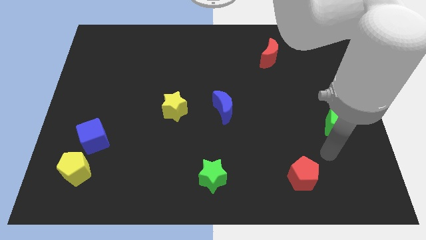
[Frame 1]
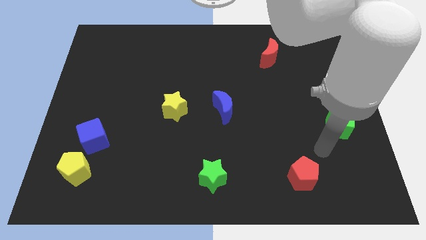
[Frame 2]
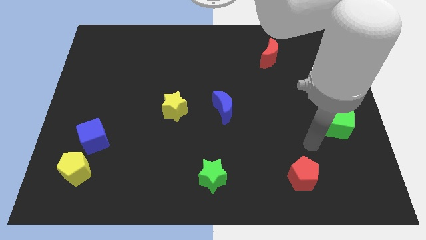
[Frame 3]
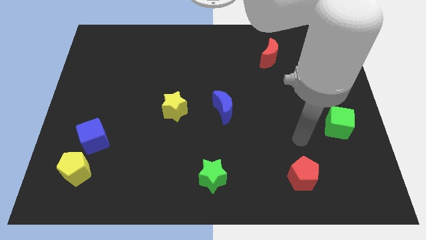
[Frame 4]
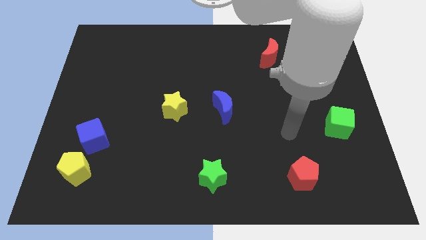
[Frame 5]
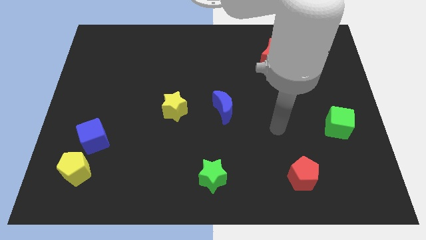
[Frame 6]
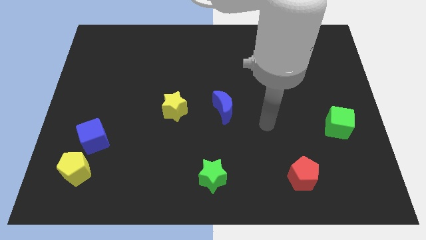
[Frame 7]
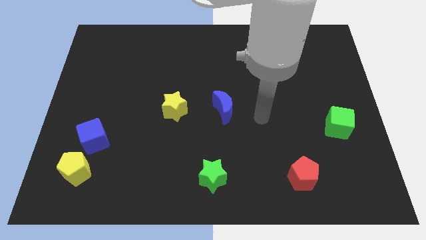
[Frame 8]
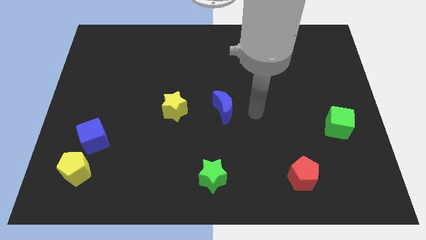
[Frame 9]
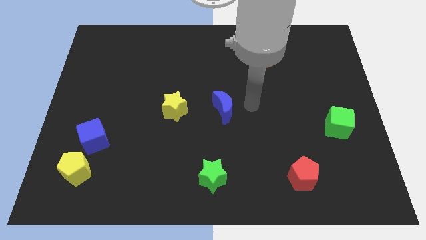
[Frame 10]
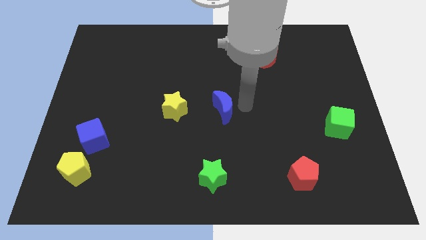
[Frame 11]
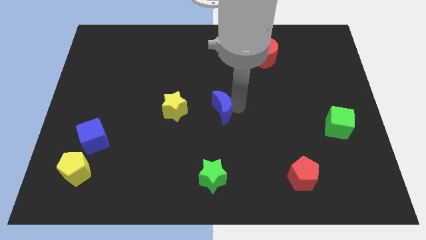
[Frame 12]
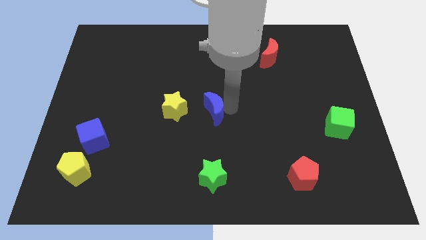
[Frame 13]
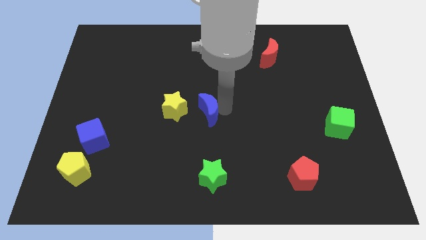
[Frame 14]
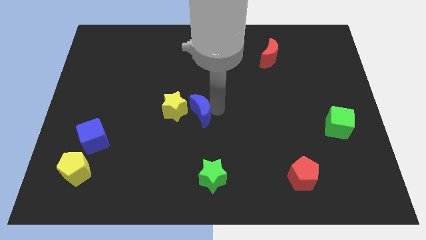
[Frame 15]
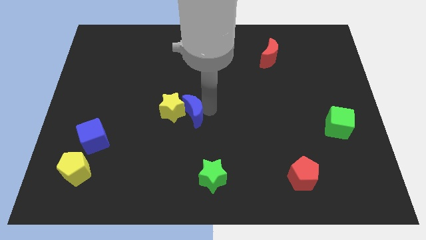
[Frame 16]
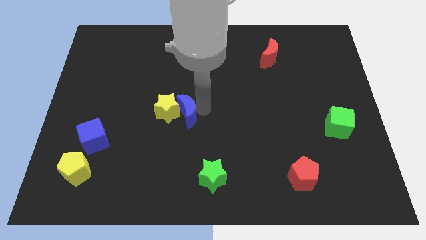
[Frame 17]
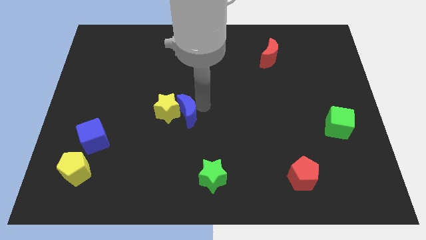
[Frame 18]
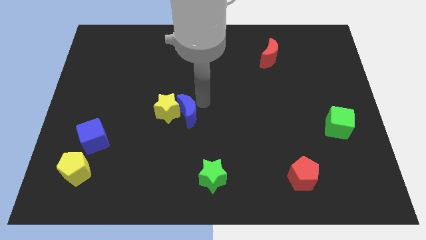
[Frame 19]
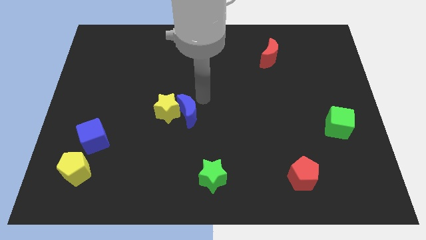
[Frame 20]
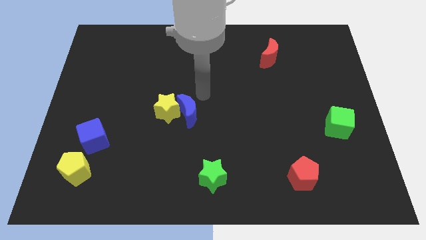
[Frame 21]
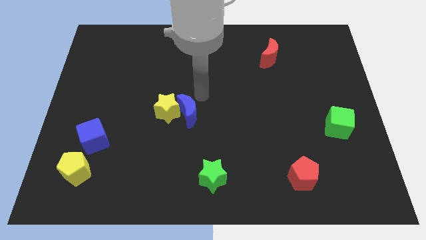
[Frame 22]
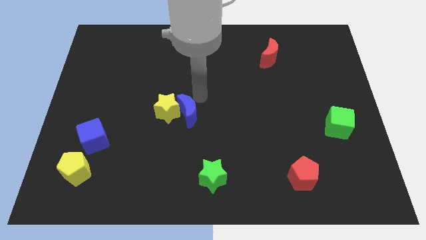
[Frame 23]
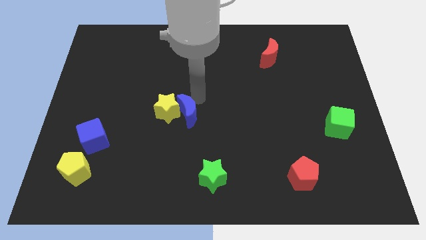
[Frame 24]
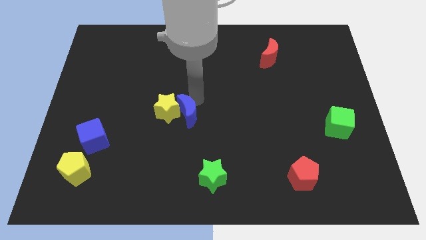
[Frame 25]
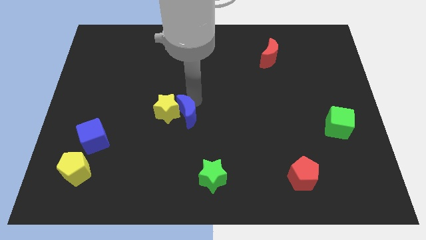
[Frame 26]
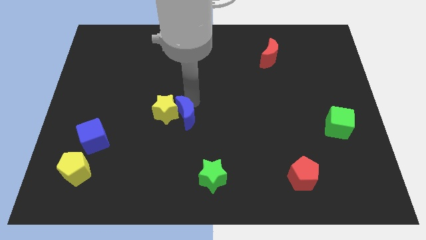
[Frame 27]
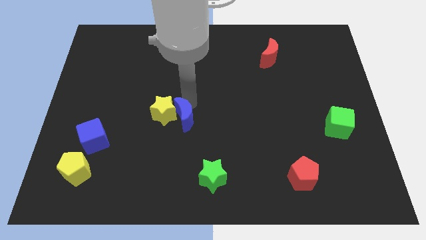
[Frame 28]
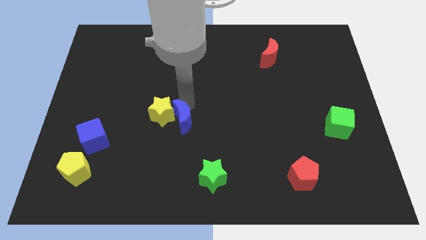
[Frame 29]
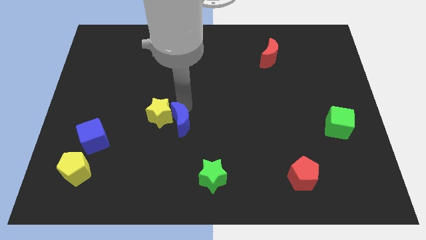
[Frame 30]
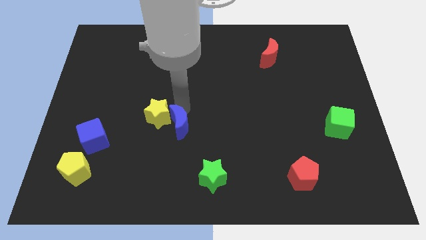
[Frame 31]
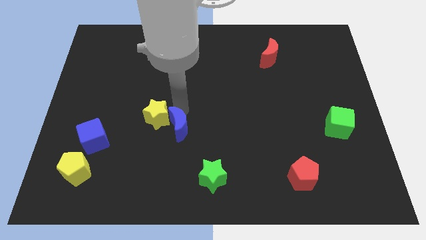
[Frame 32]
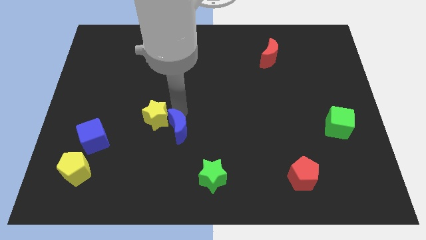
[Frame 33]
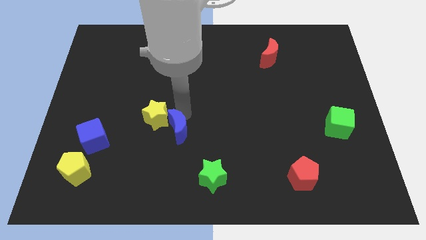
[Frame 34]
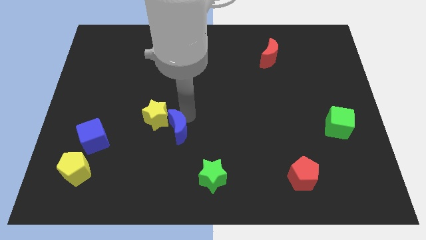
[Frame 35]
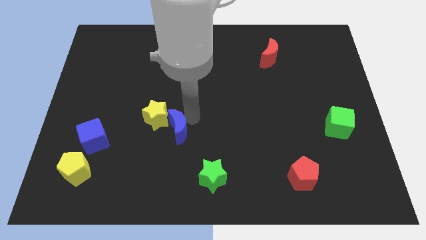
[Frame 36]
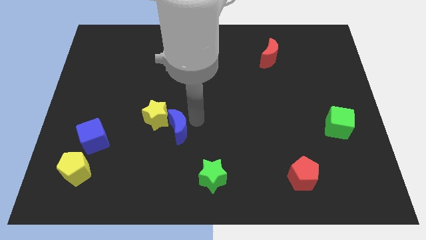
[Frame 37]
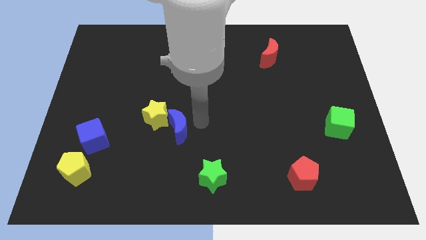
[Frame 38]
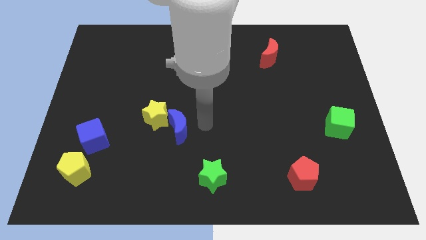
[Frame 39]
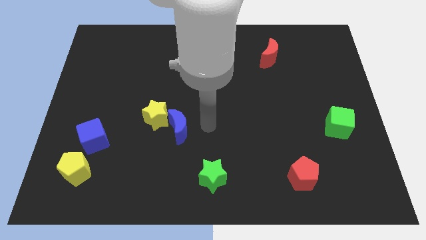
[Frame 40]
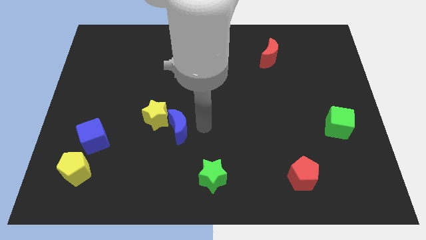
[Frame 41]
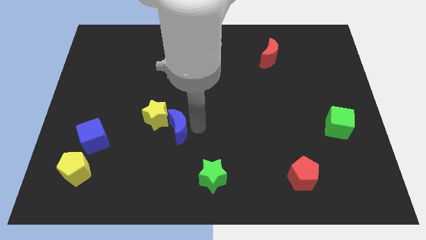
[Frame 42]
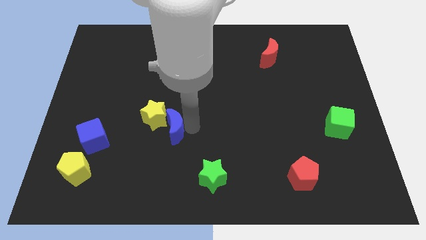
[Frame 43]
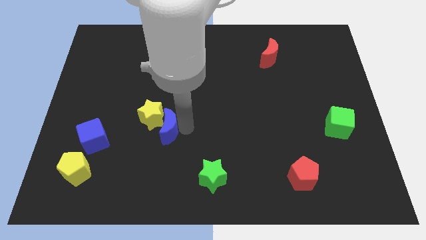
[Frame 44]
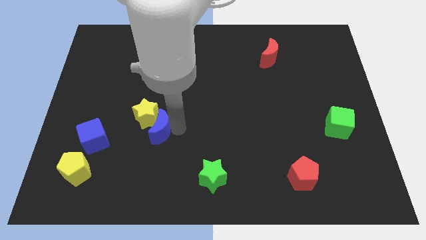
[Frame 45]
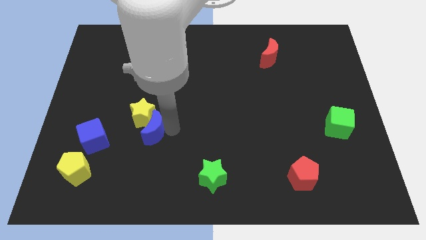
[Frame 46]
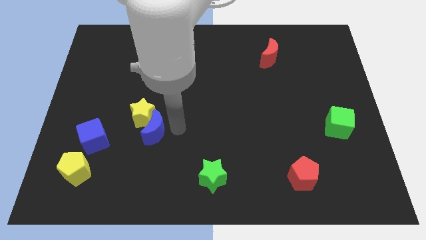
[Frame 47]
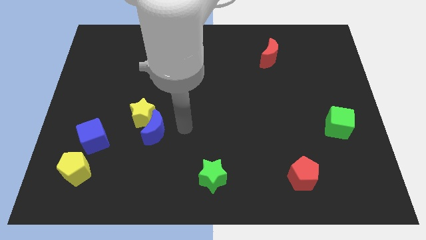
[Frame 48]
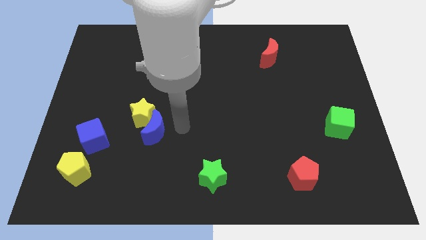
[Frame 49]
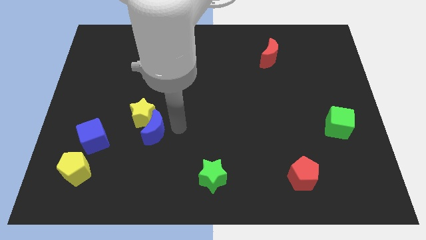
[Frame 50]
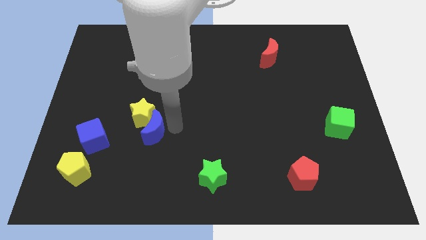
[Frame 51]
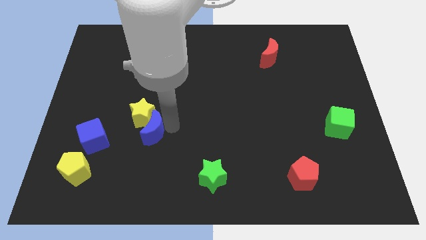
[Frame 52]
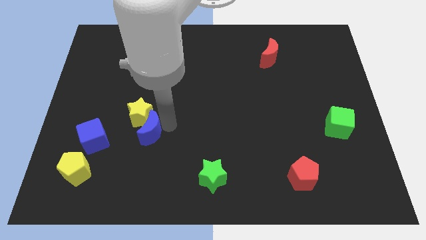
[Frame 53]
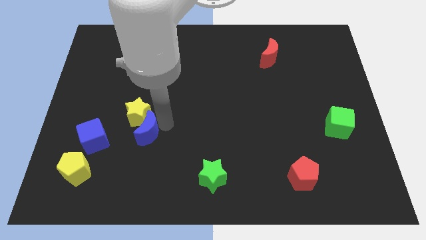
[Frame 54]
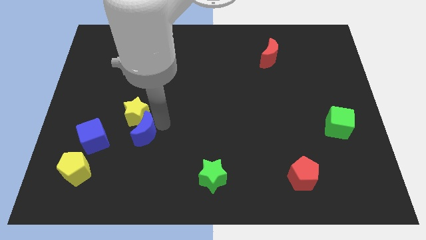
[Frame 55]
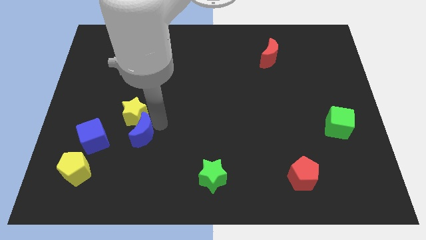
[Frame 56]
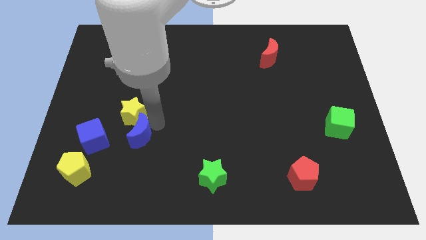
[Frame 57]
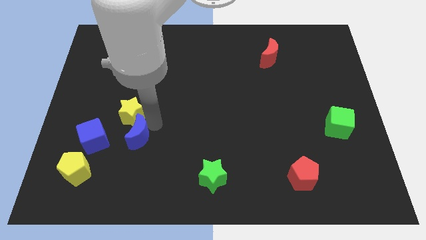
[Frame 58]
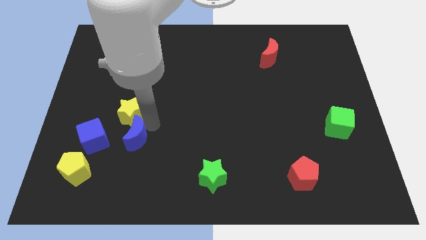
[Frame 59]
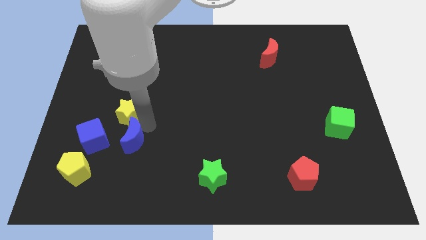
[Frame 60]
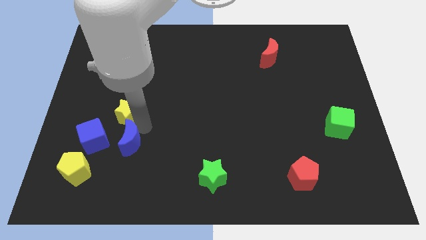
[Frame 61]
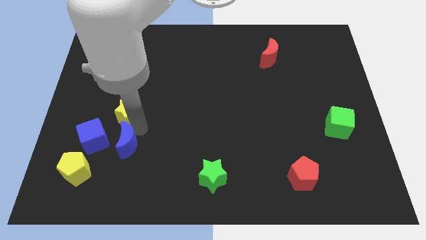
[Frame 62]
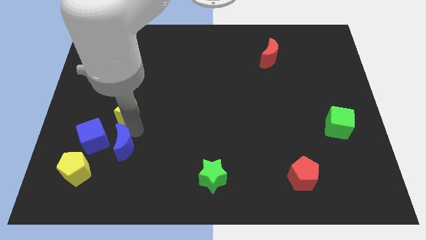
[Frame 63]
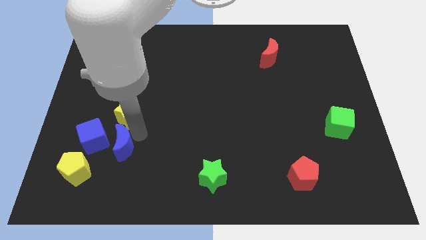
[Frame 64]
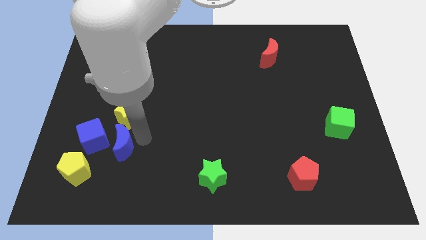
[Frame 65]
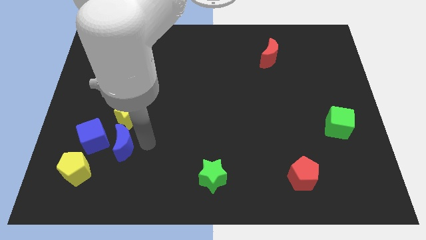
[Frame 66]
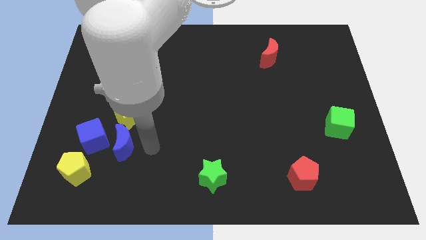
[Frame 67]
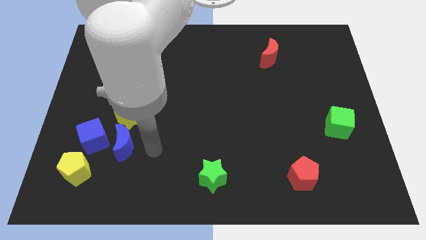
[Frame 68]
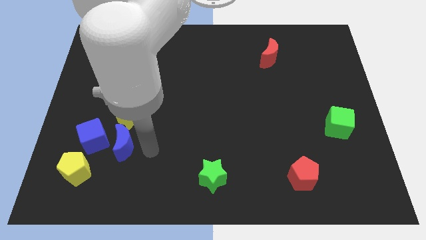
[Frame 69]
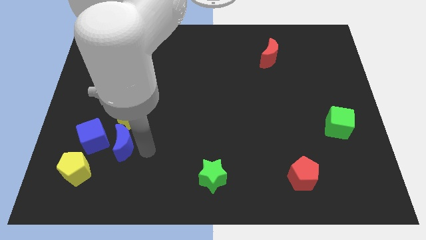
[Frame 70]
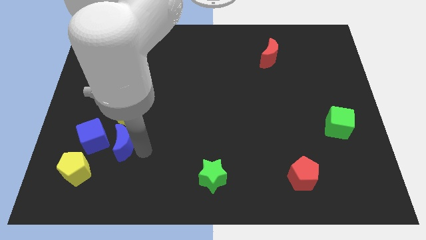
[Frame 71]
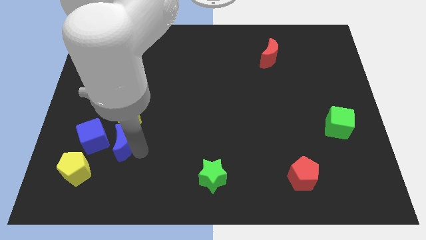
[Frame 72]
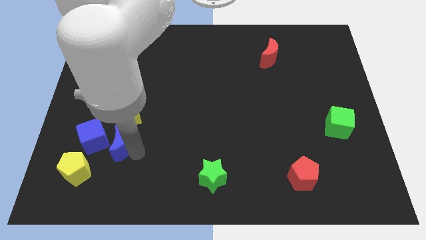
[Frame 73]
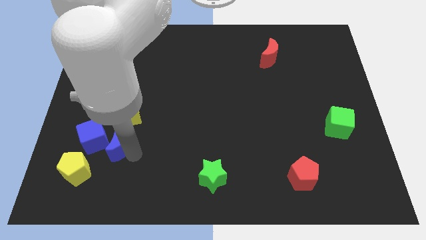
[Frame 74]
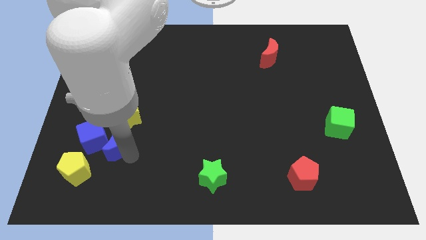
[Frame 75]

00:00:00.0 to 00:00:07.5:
slide the blue moon to the blue cube

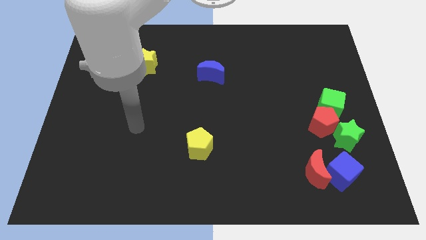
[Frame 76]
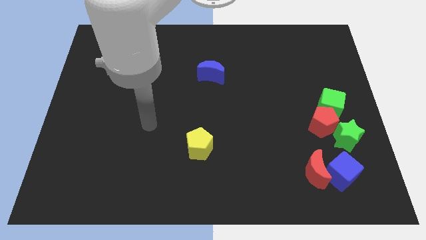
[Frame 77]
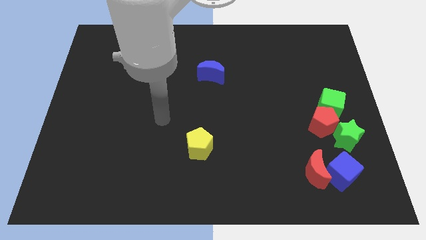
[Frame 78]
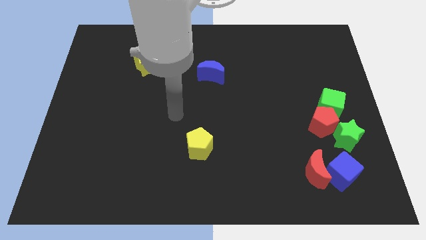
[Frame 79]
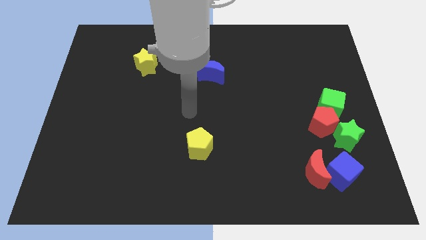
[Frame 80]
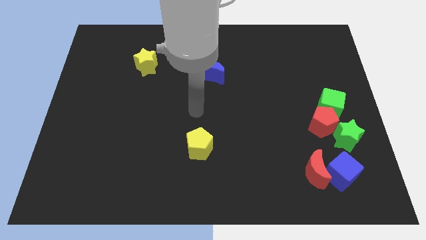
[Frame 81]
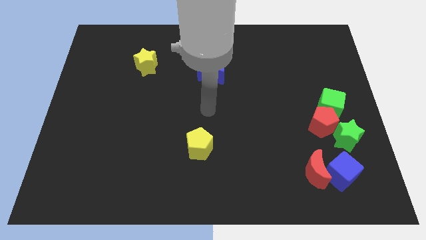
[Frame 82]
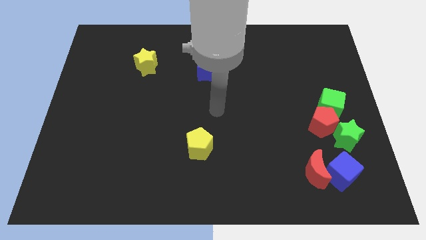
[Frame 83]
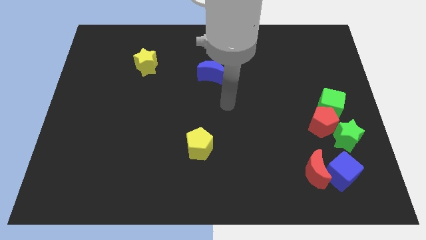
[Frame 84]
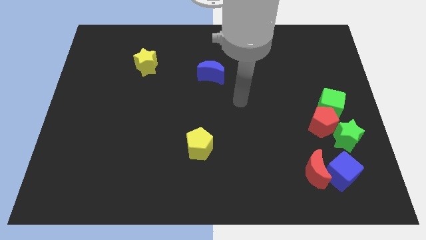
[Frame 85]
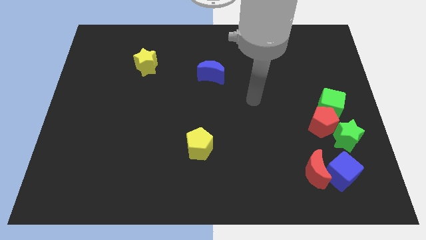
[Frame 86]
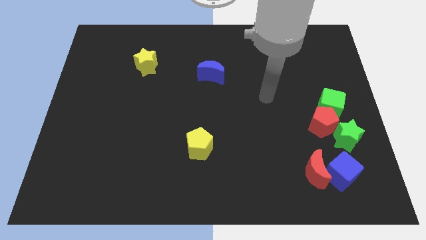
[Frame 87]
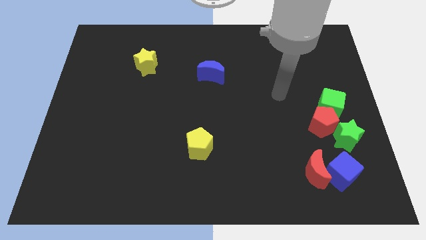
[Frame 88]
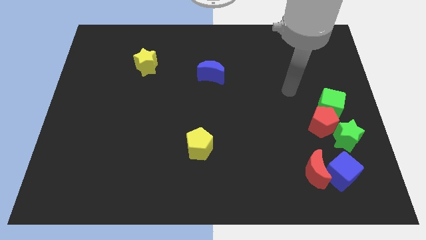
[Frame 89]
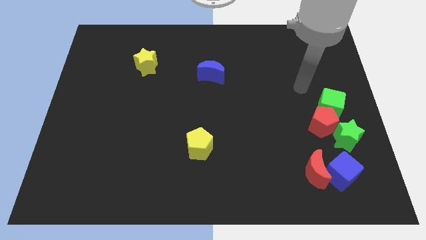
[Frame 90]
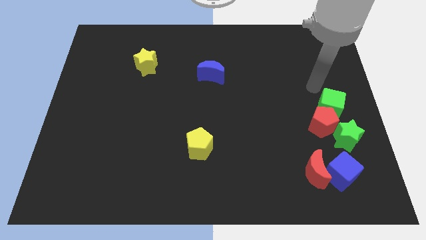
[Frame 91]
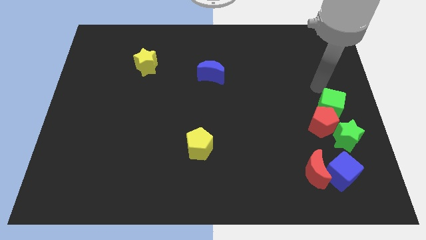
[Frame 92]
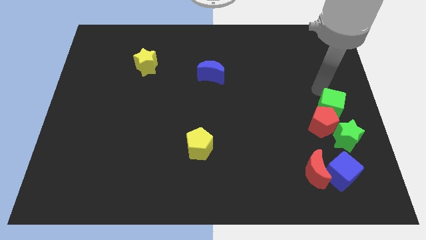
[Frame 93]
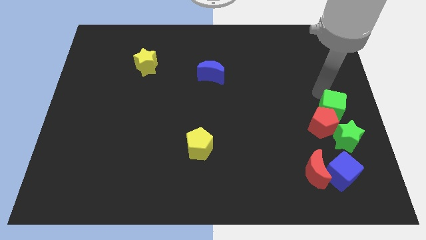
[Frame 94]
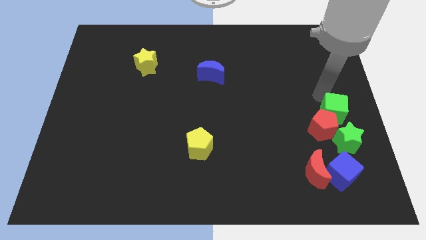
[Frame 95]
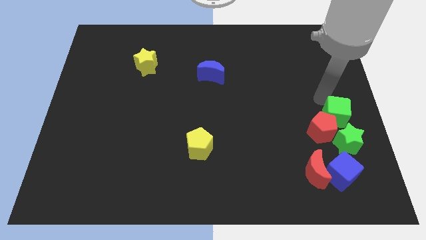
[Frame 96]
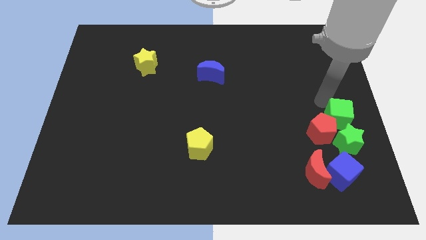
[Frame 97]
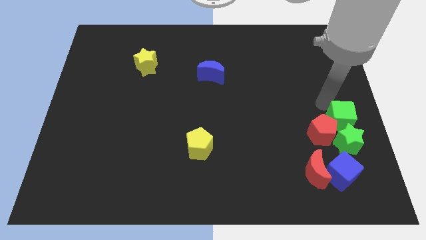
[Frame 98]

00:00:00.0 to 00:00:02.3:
slide the green cube towards the green star
